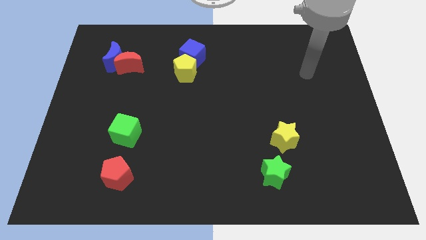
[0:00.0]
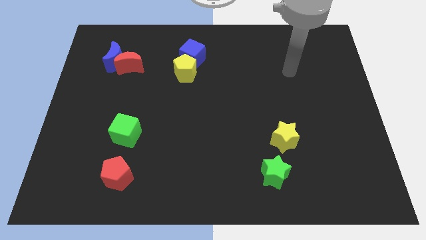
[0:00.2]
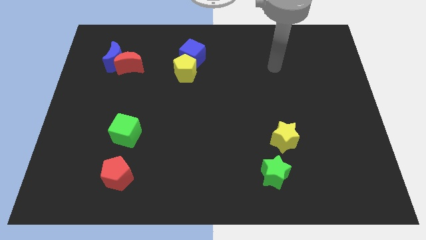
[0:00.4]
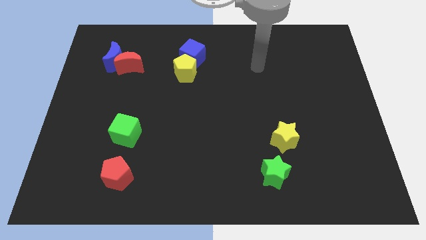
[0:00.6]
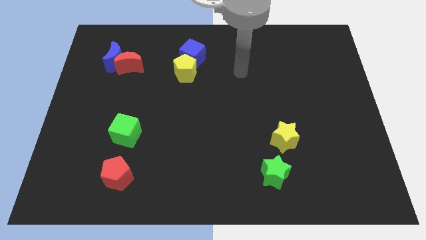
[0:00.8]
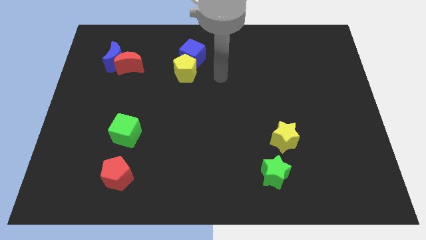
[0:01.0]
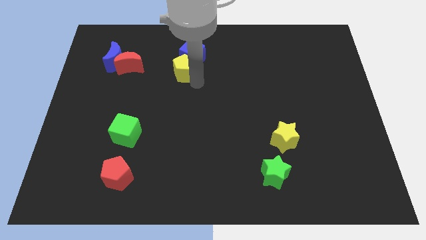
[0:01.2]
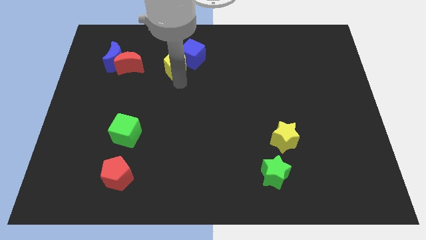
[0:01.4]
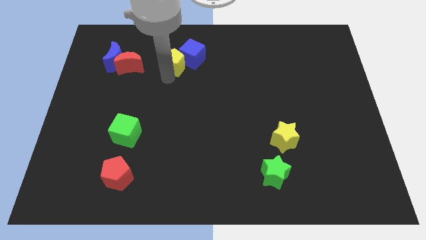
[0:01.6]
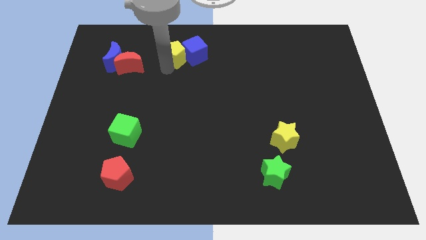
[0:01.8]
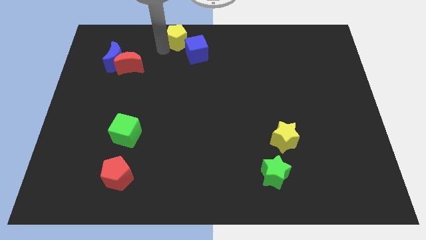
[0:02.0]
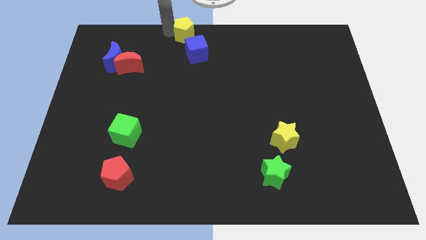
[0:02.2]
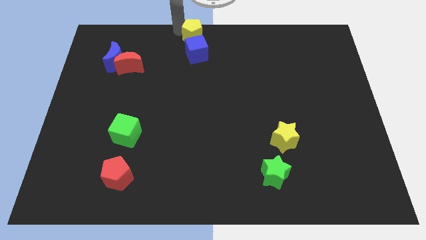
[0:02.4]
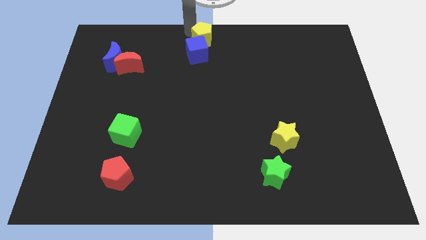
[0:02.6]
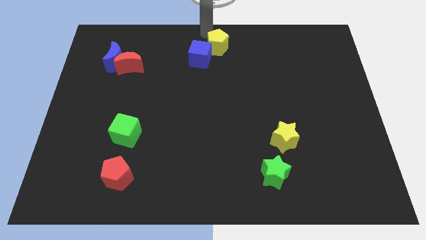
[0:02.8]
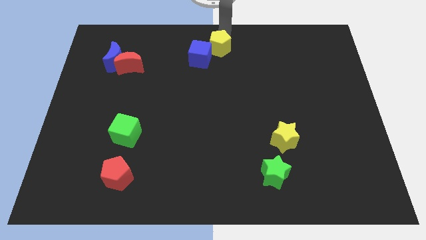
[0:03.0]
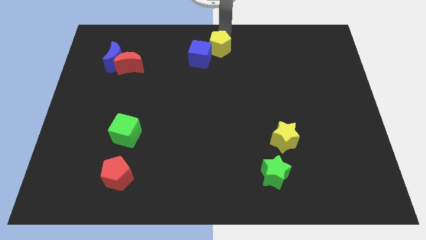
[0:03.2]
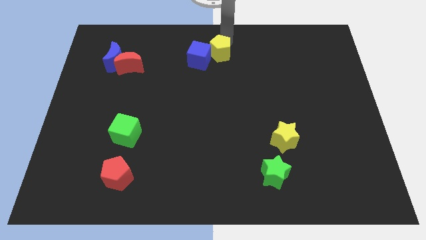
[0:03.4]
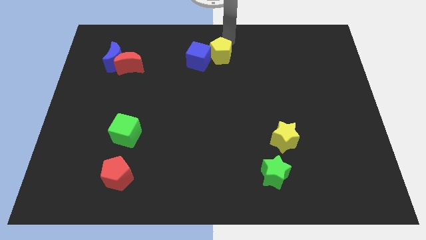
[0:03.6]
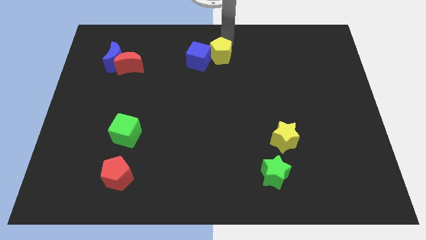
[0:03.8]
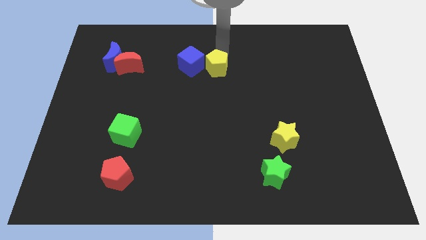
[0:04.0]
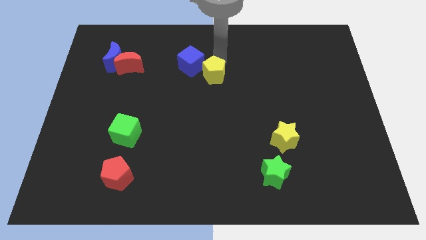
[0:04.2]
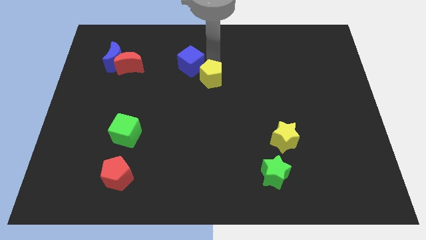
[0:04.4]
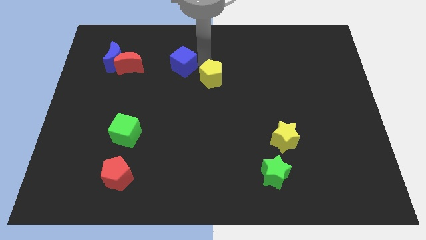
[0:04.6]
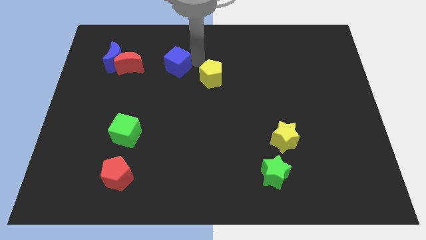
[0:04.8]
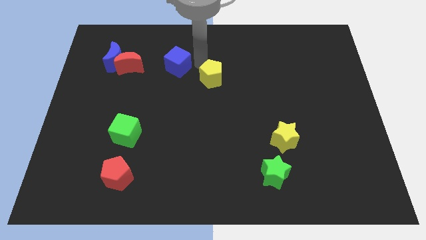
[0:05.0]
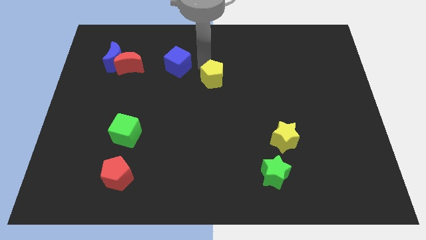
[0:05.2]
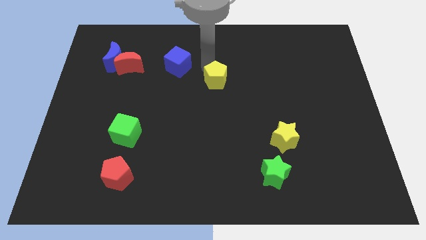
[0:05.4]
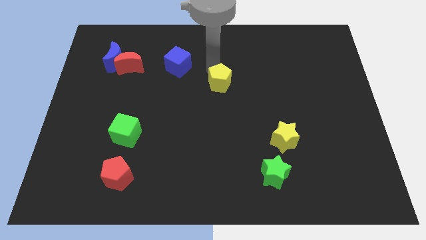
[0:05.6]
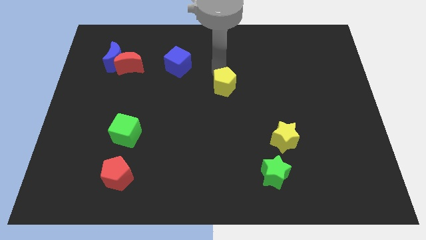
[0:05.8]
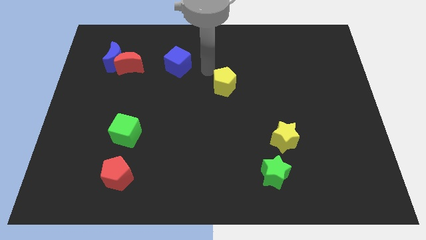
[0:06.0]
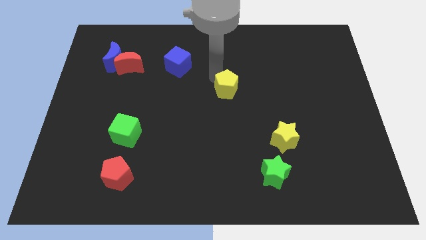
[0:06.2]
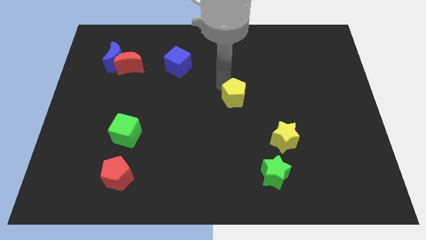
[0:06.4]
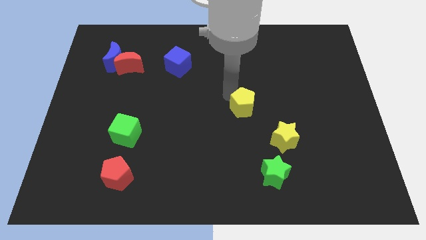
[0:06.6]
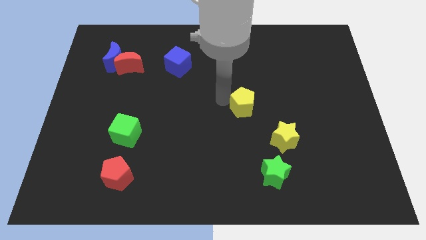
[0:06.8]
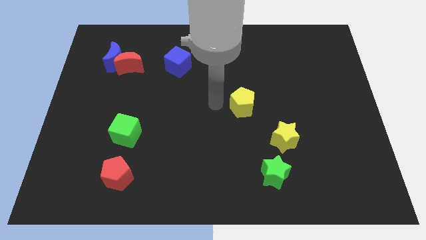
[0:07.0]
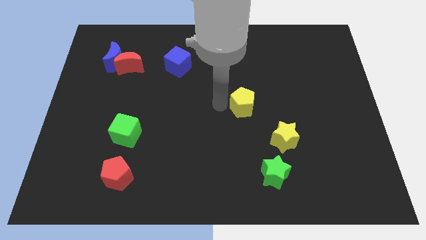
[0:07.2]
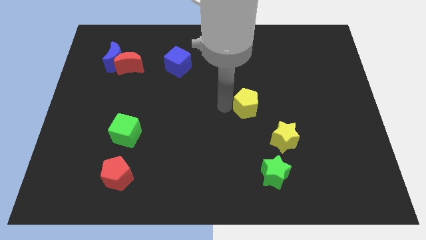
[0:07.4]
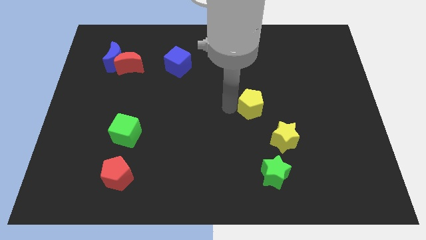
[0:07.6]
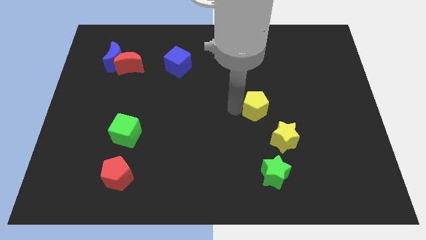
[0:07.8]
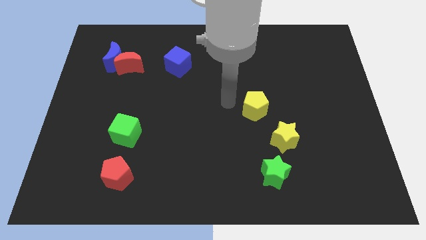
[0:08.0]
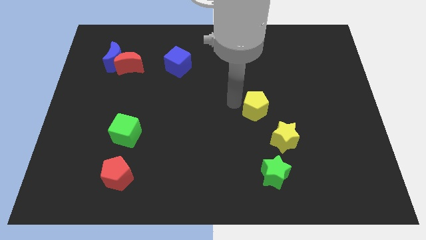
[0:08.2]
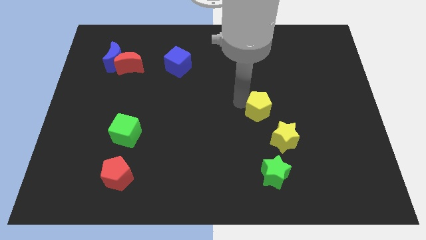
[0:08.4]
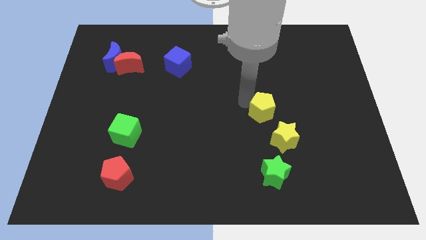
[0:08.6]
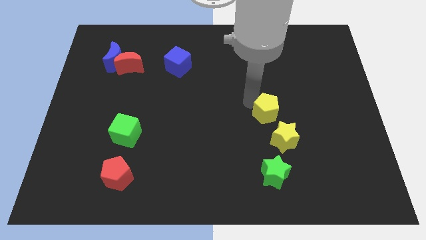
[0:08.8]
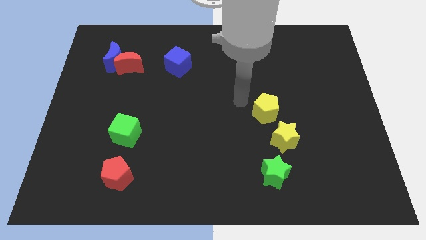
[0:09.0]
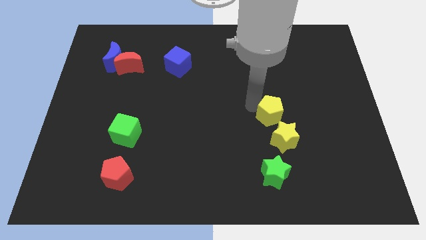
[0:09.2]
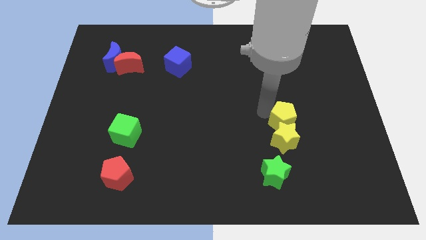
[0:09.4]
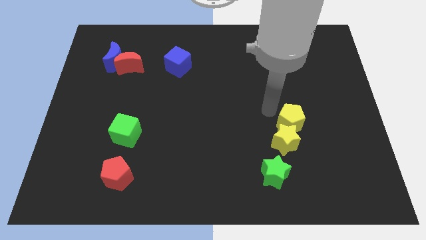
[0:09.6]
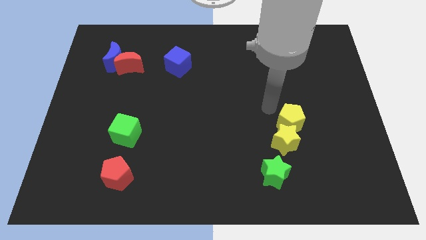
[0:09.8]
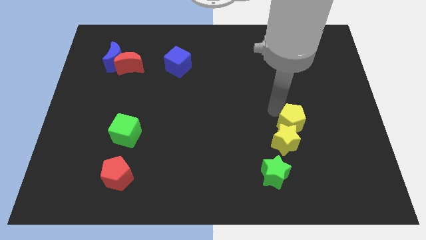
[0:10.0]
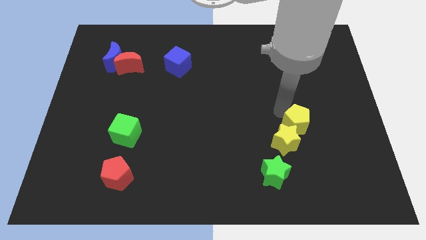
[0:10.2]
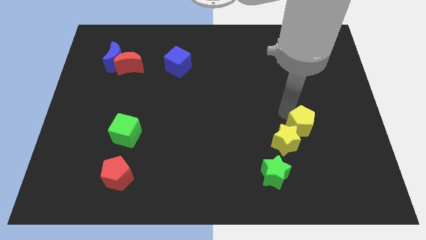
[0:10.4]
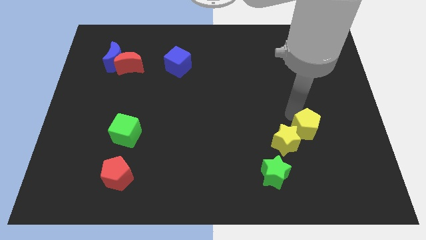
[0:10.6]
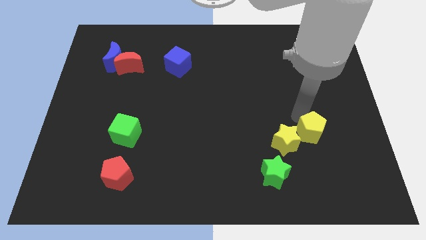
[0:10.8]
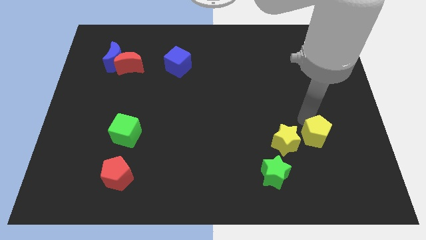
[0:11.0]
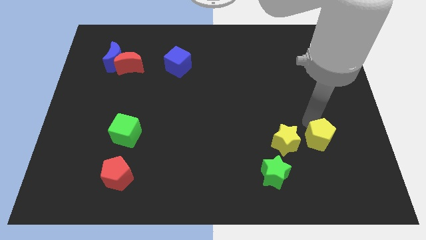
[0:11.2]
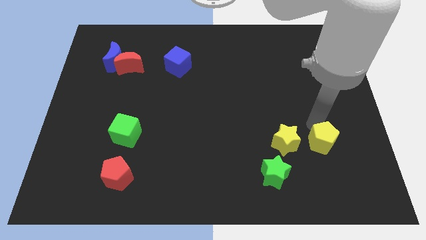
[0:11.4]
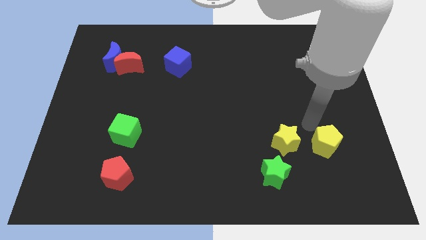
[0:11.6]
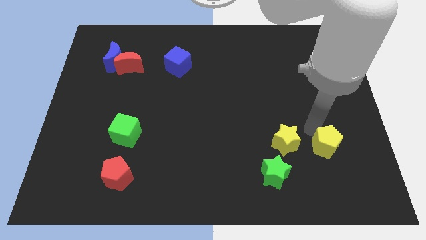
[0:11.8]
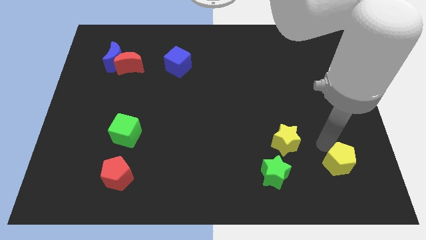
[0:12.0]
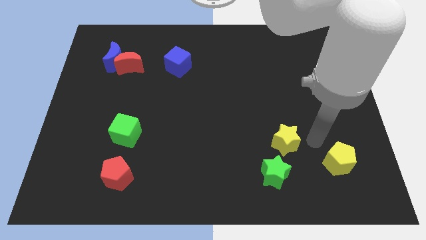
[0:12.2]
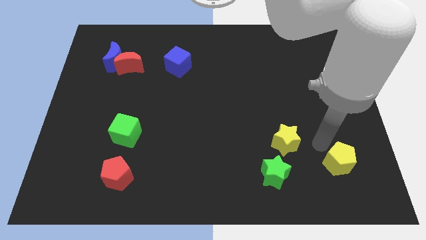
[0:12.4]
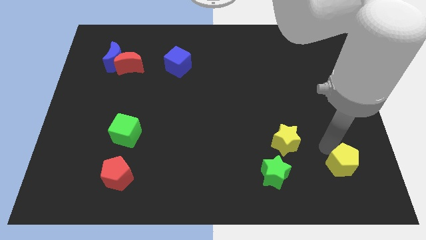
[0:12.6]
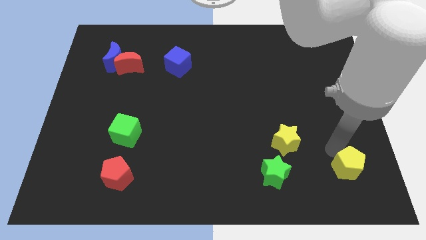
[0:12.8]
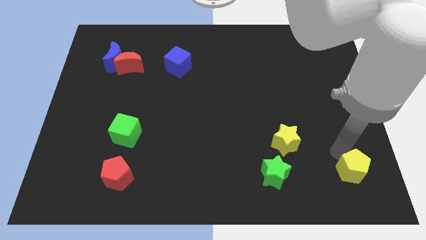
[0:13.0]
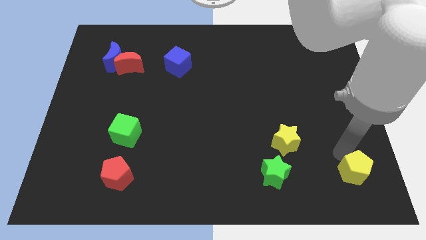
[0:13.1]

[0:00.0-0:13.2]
move the yellow pentagon to the bottom right
